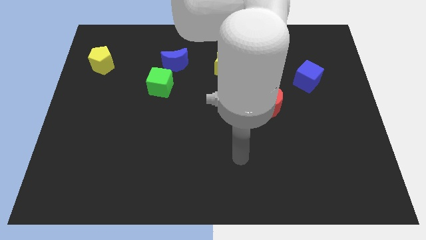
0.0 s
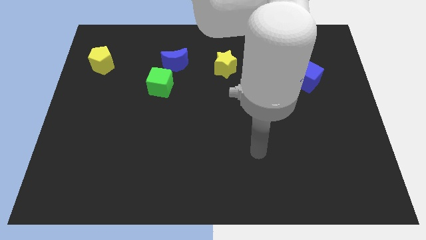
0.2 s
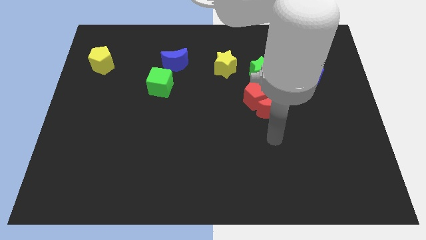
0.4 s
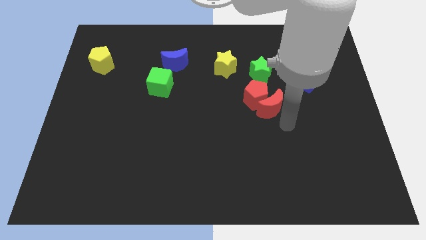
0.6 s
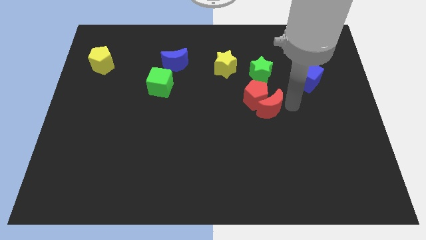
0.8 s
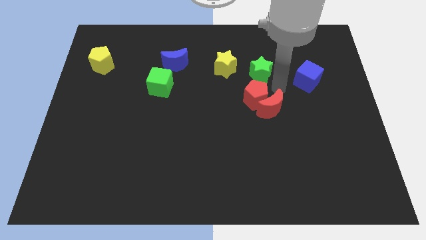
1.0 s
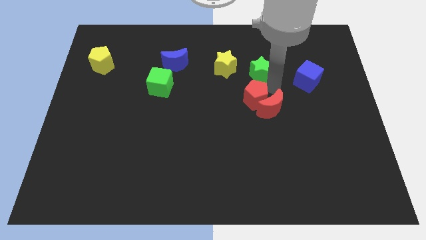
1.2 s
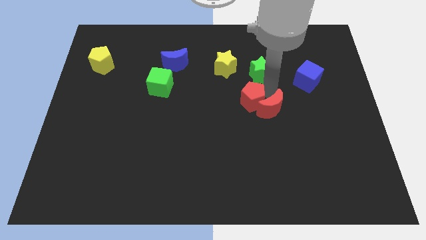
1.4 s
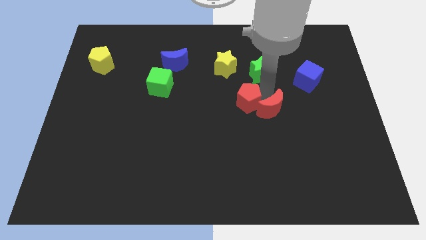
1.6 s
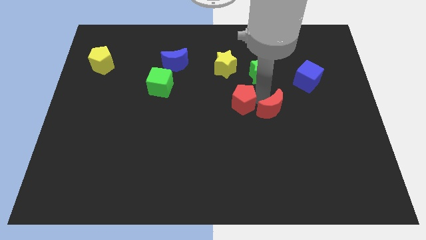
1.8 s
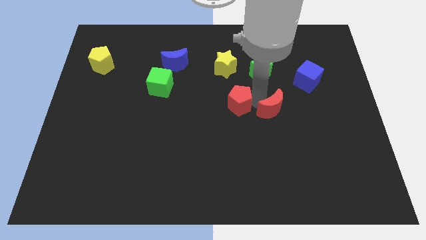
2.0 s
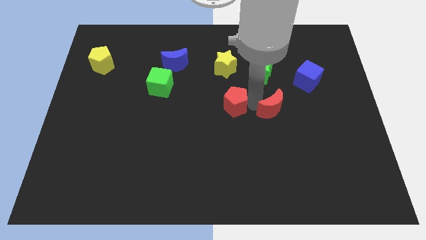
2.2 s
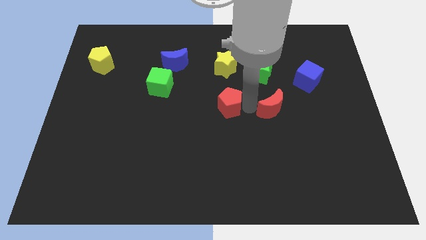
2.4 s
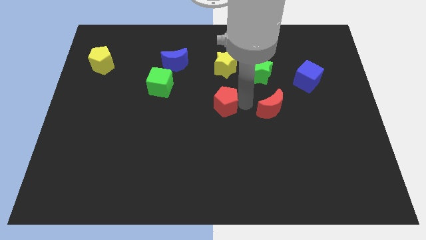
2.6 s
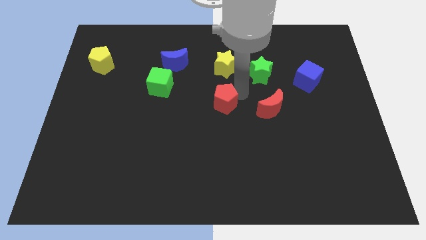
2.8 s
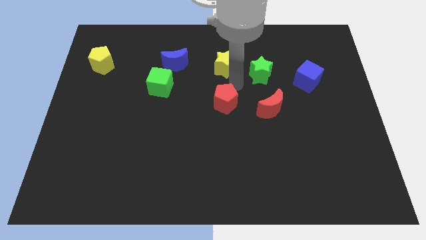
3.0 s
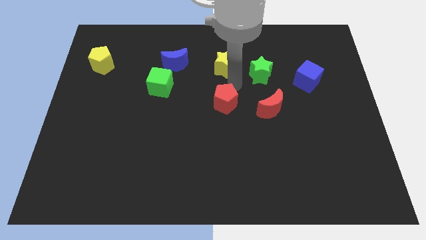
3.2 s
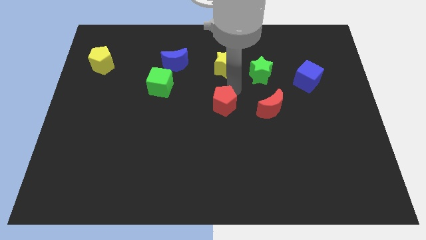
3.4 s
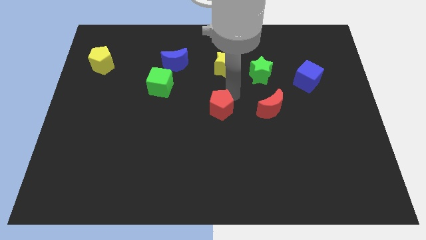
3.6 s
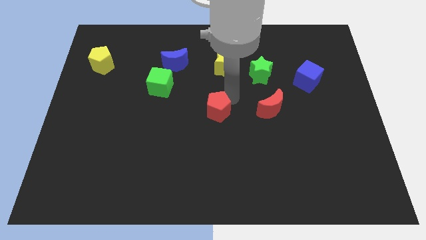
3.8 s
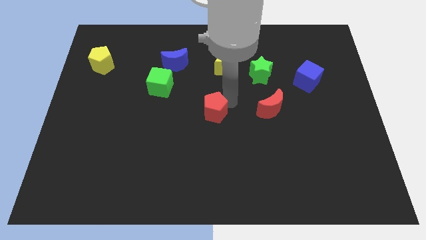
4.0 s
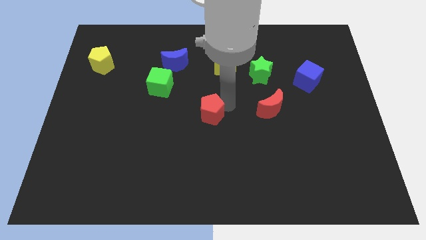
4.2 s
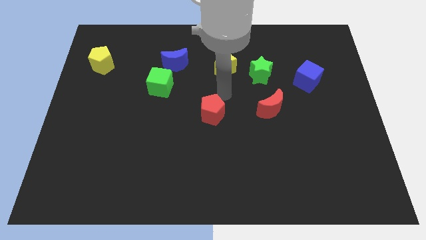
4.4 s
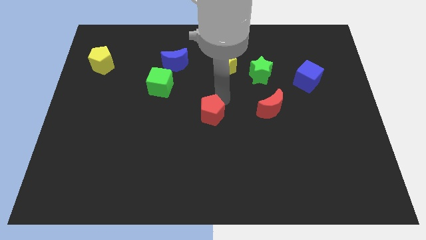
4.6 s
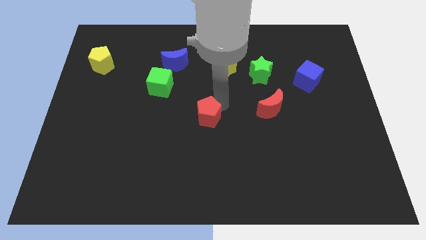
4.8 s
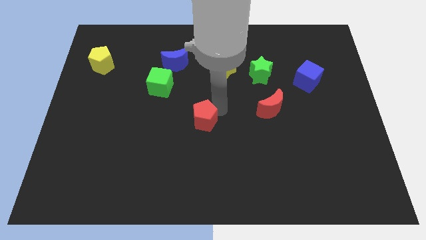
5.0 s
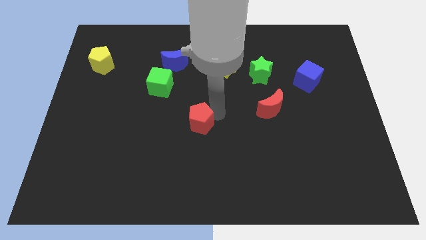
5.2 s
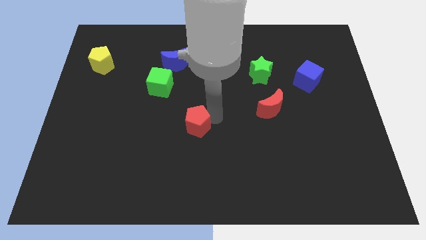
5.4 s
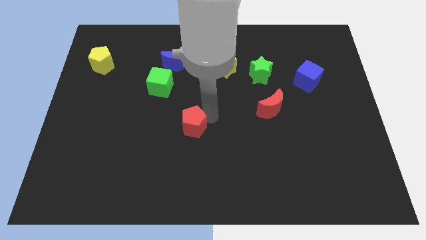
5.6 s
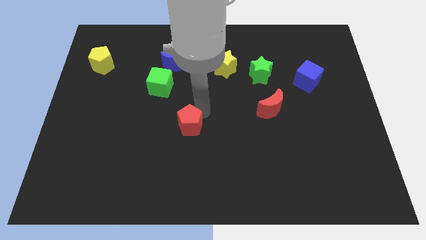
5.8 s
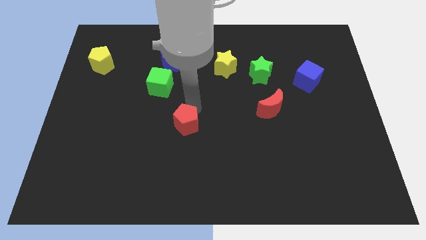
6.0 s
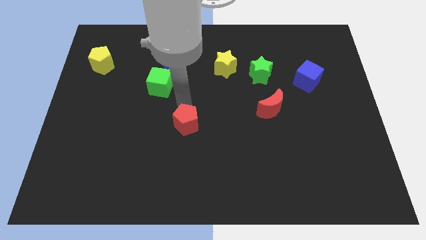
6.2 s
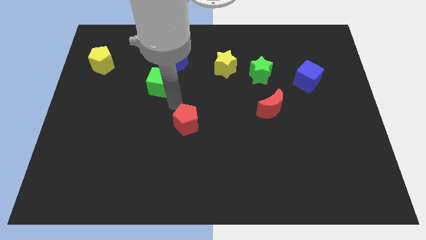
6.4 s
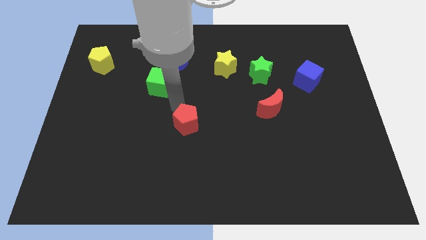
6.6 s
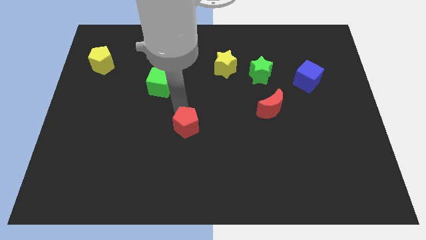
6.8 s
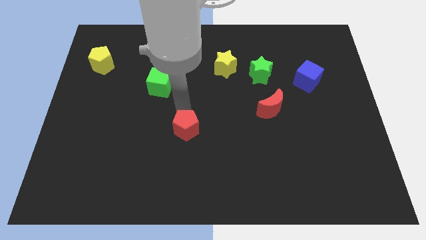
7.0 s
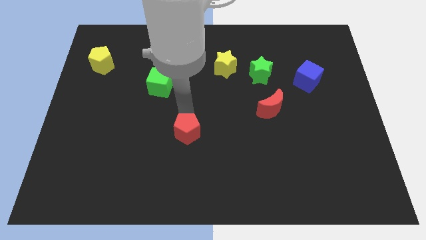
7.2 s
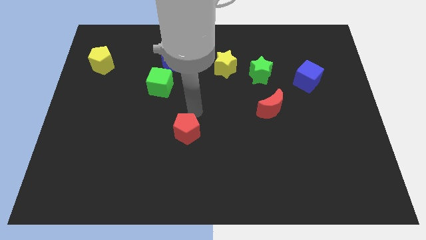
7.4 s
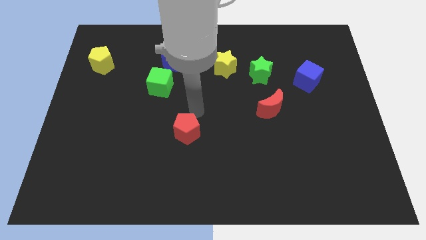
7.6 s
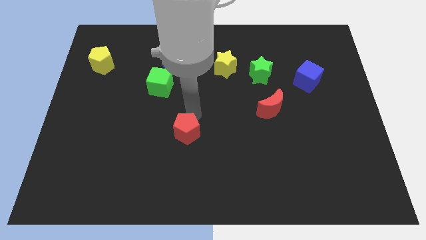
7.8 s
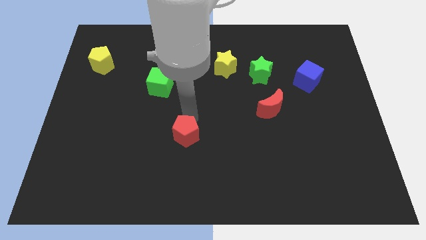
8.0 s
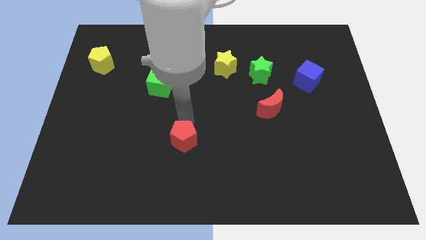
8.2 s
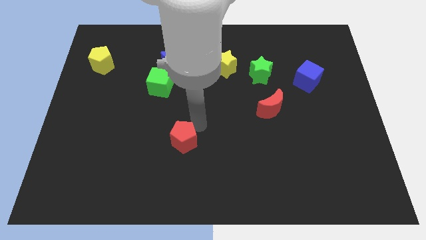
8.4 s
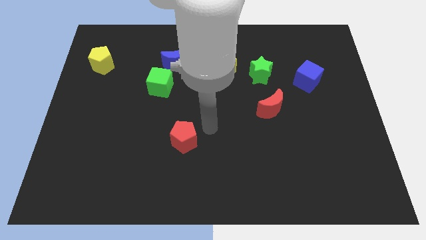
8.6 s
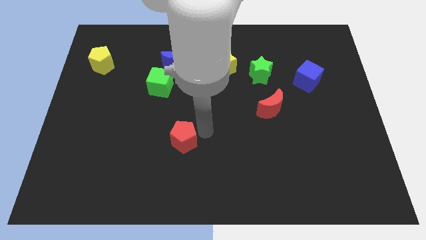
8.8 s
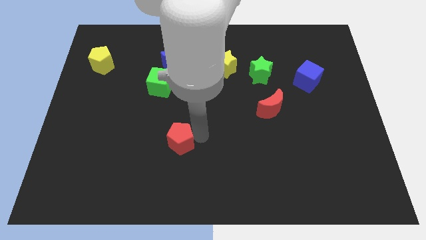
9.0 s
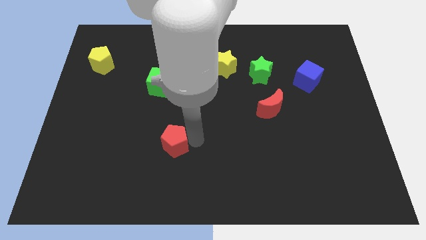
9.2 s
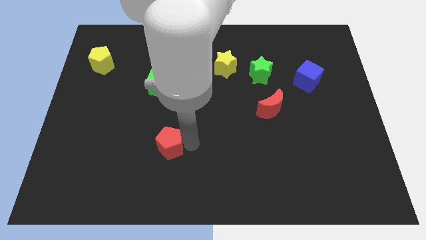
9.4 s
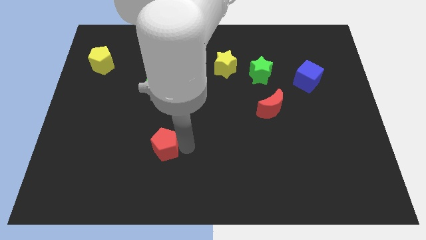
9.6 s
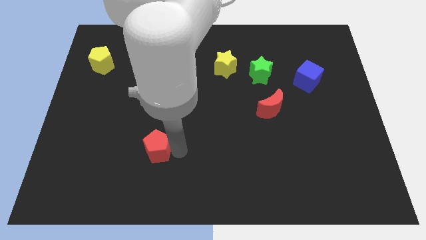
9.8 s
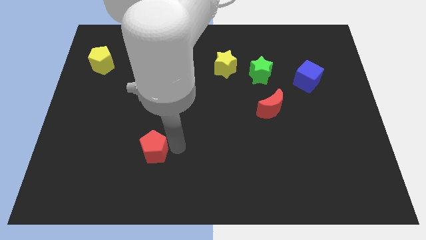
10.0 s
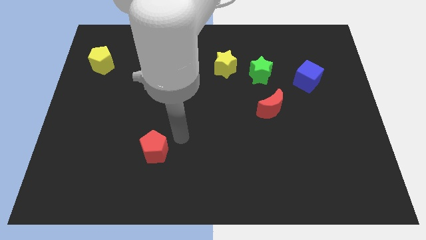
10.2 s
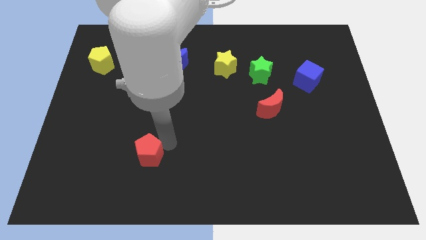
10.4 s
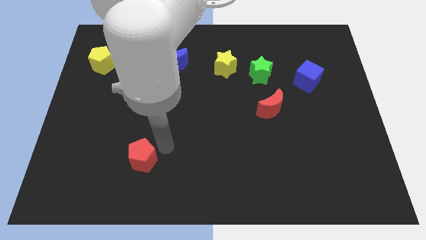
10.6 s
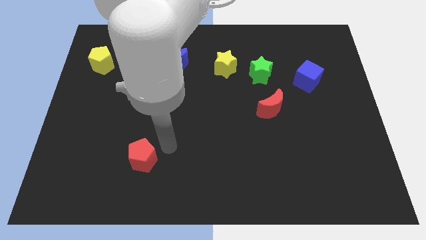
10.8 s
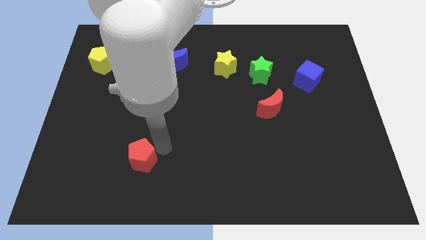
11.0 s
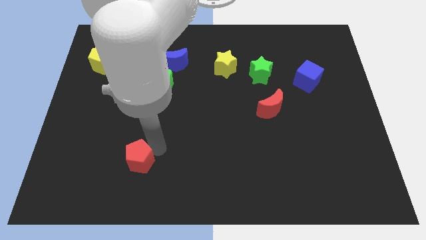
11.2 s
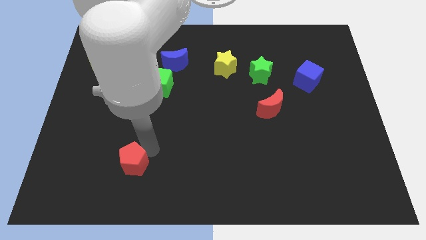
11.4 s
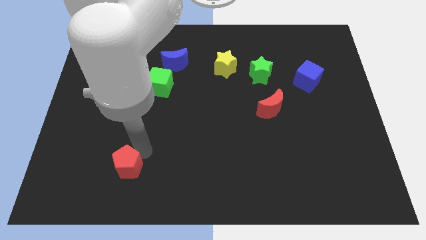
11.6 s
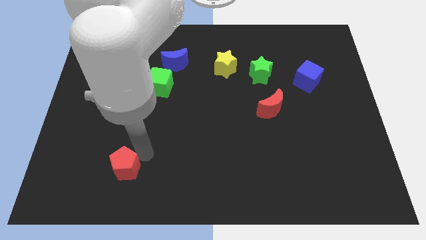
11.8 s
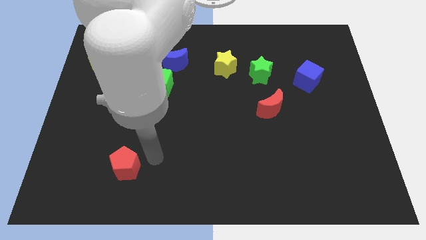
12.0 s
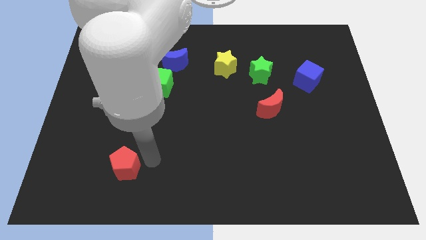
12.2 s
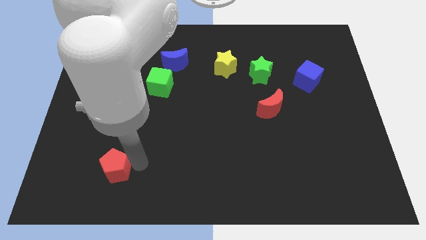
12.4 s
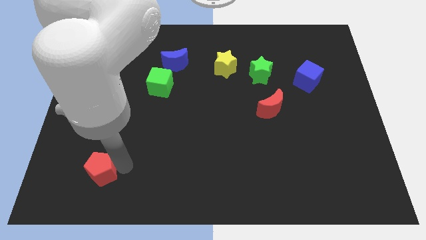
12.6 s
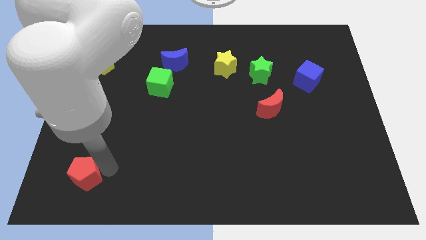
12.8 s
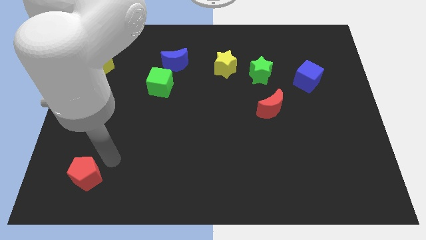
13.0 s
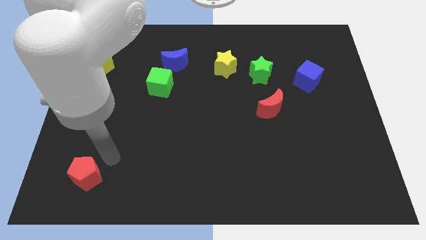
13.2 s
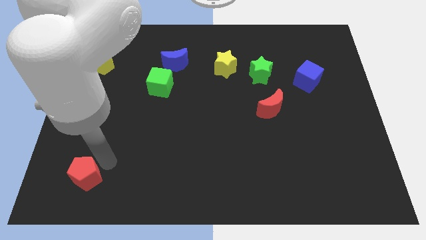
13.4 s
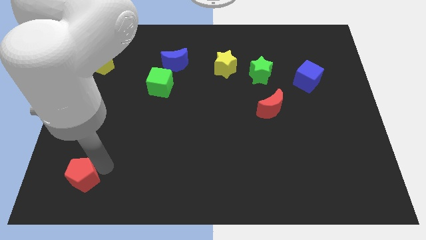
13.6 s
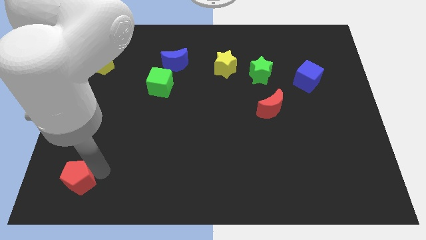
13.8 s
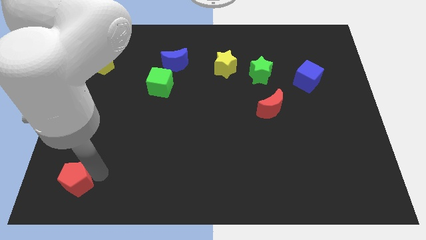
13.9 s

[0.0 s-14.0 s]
move the red pentagon to the bottom left corner
